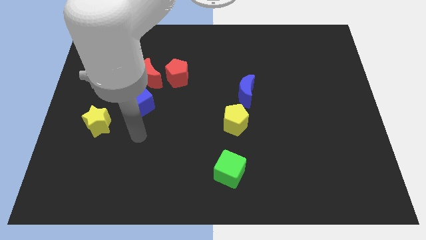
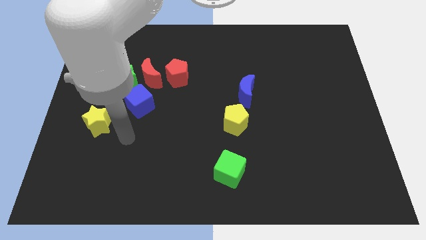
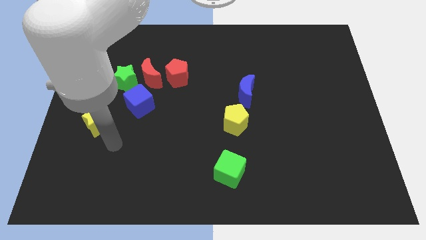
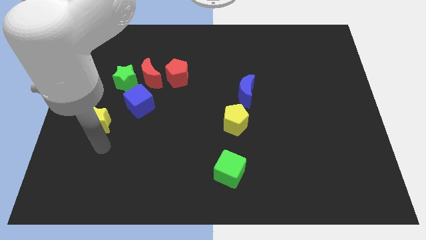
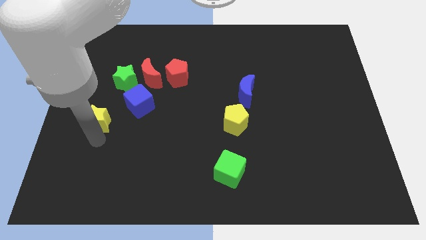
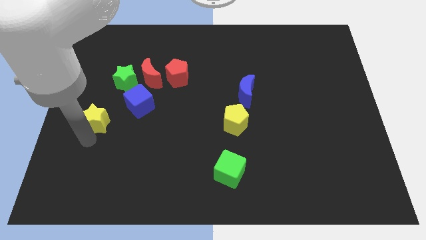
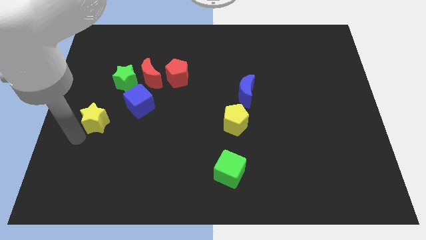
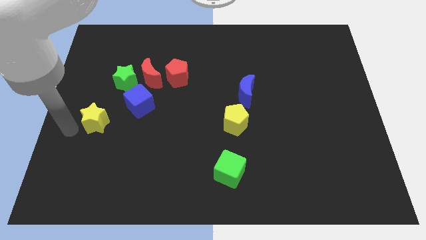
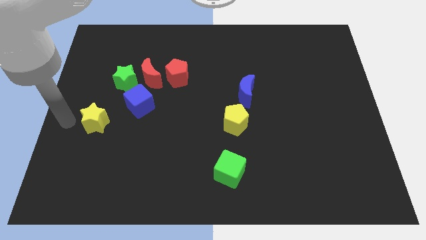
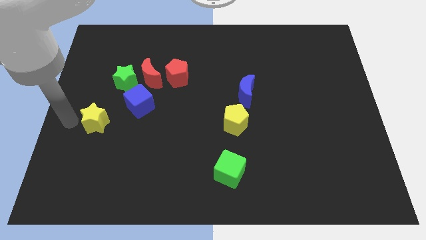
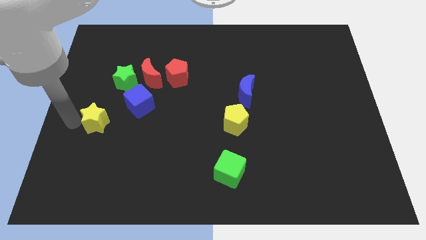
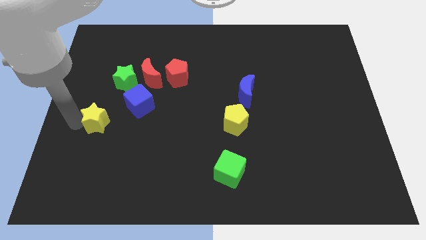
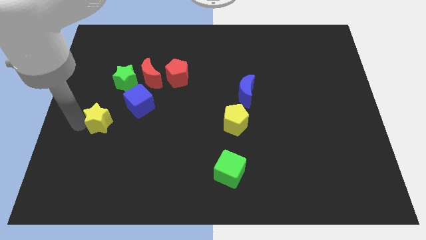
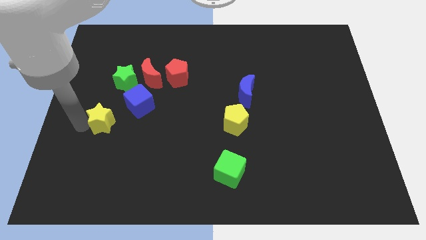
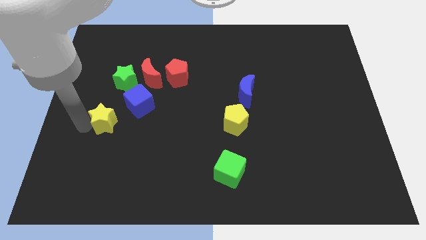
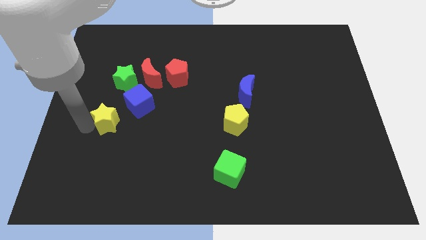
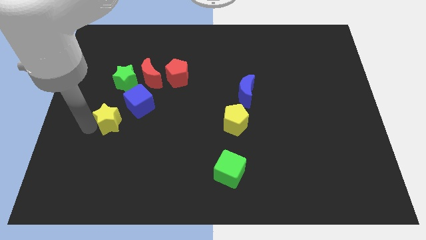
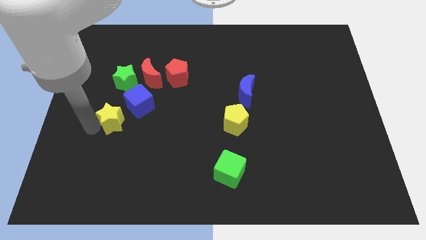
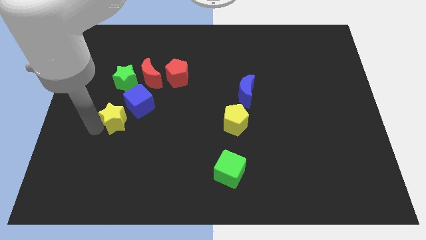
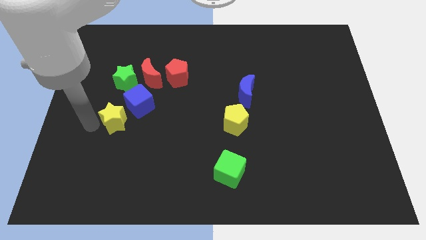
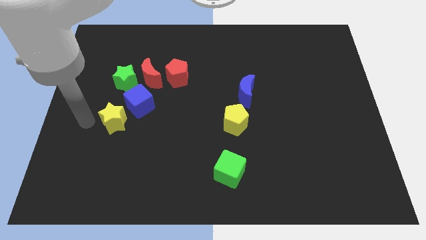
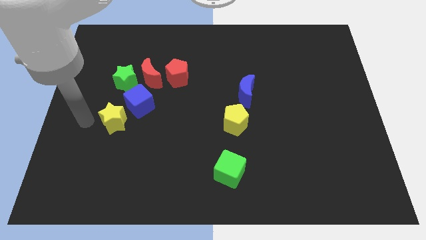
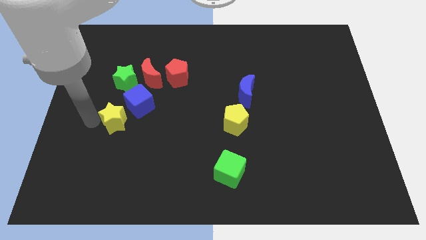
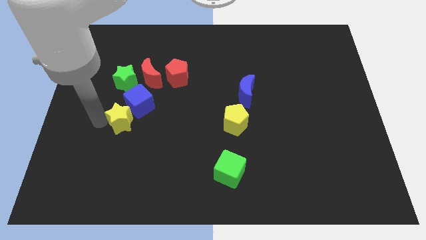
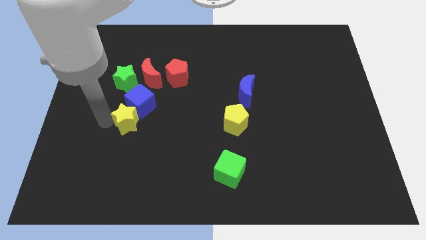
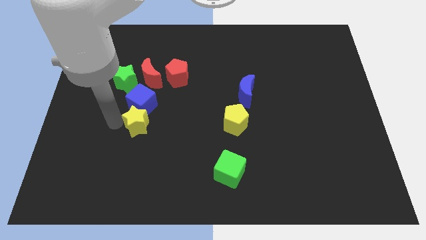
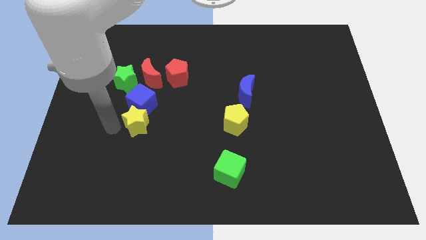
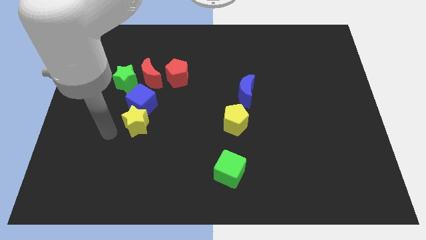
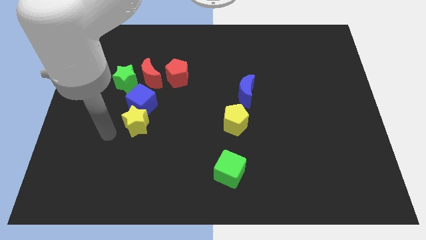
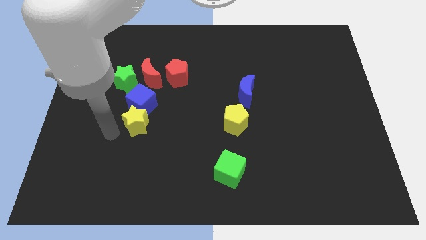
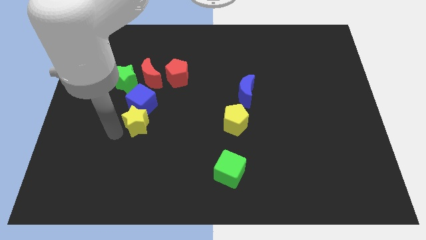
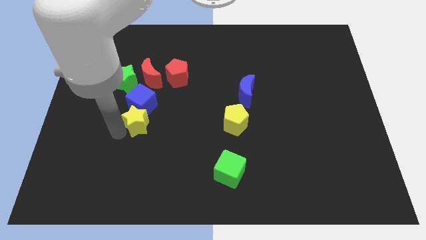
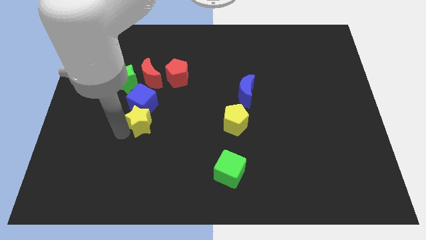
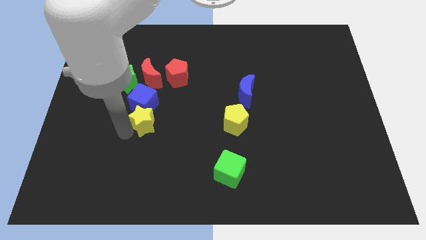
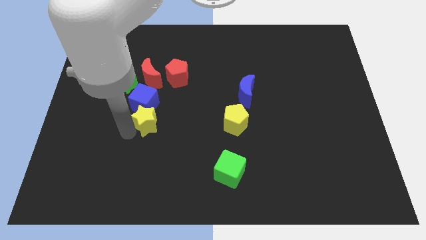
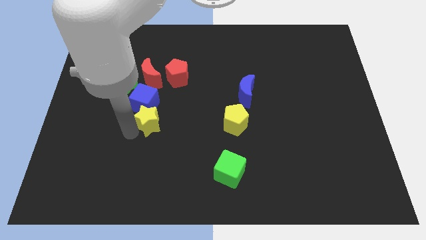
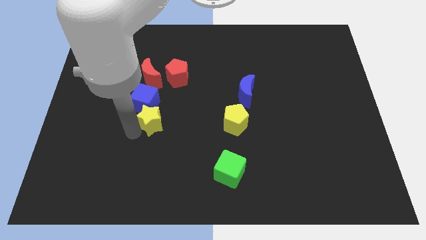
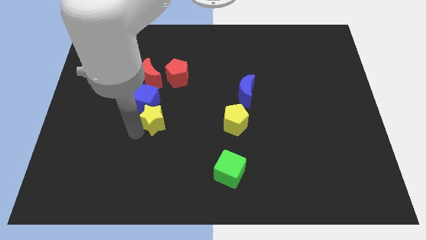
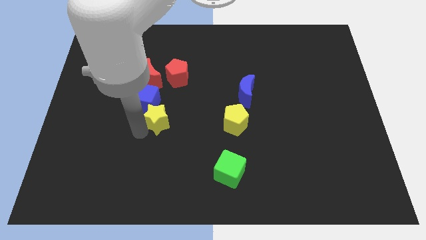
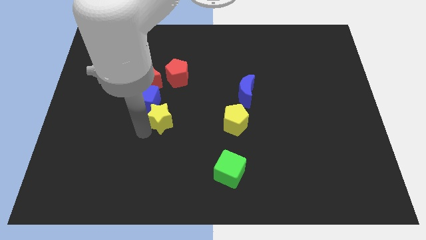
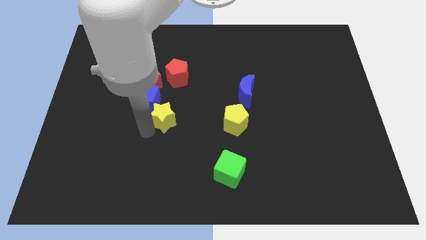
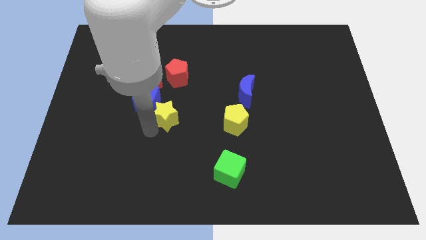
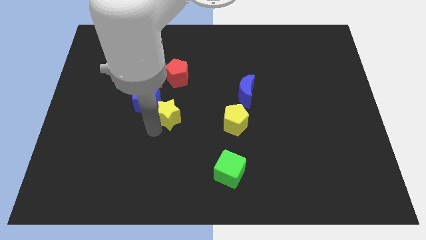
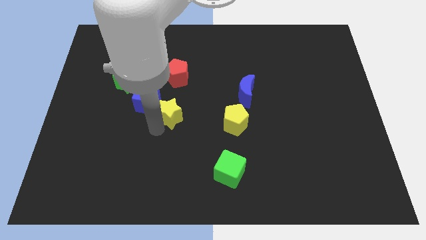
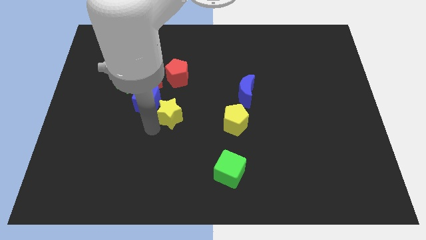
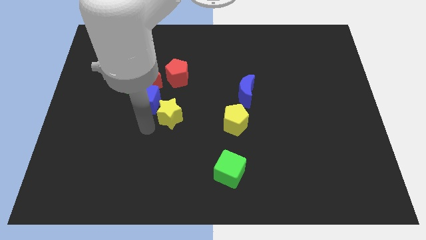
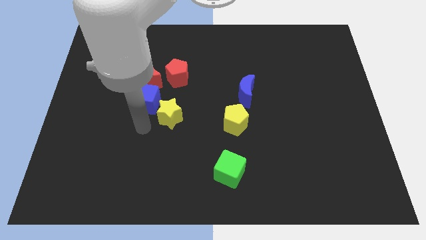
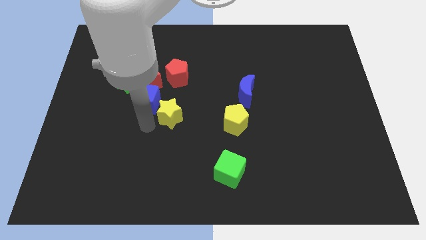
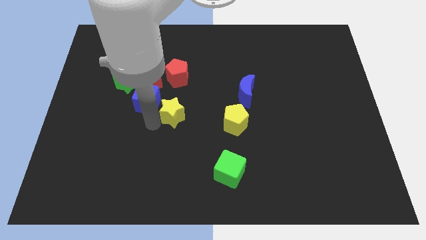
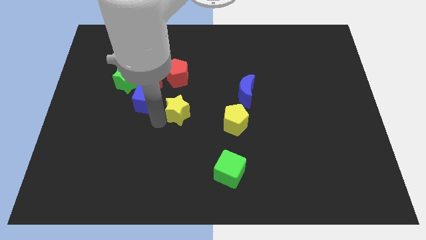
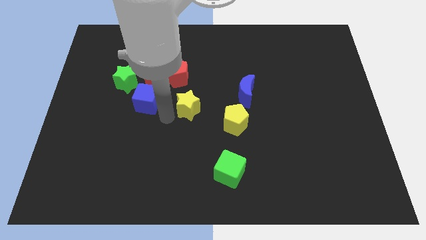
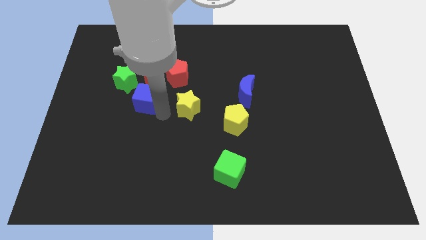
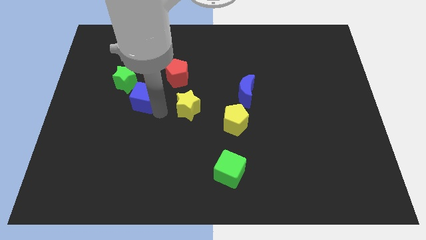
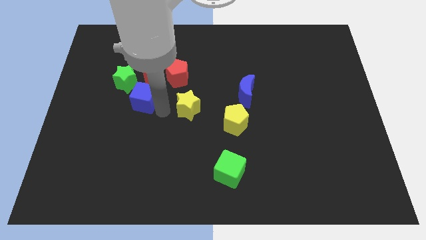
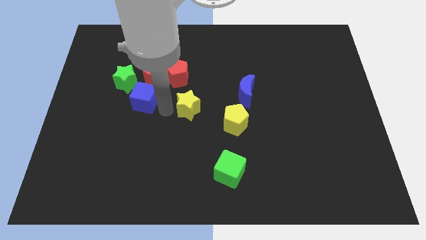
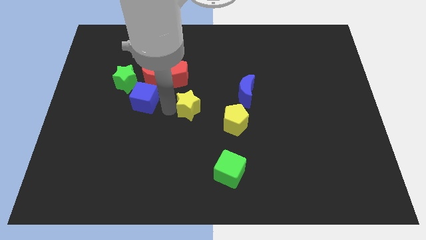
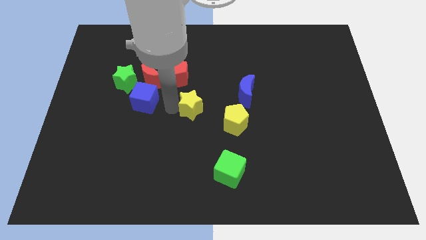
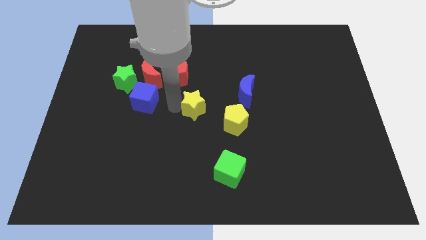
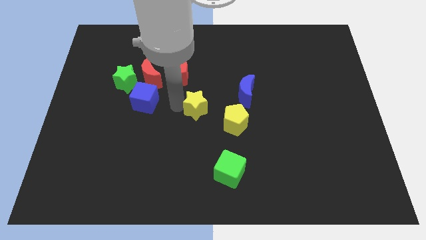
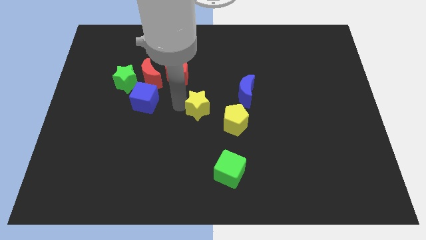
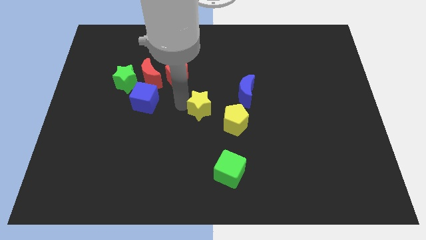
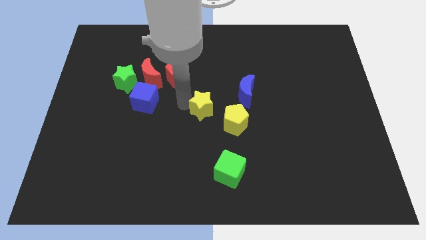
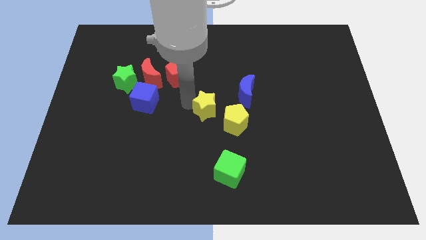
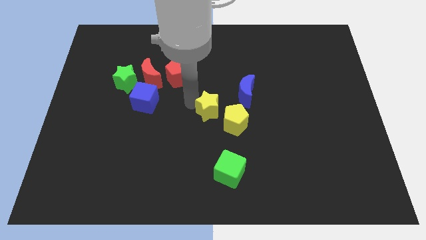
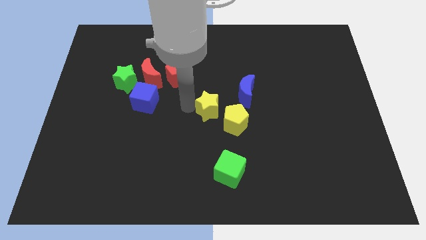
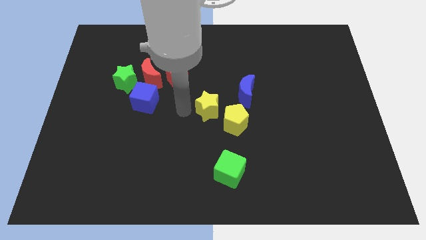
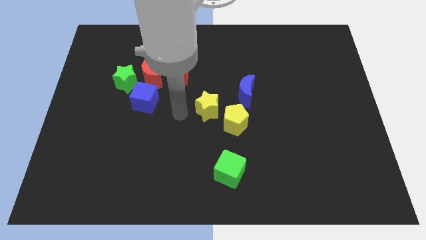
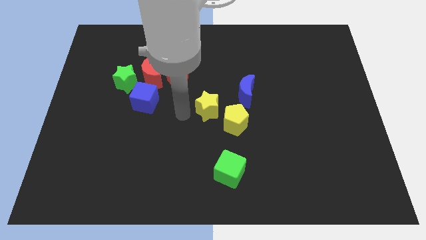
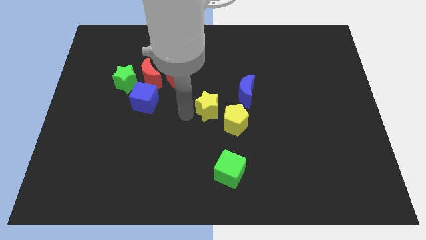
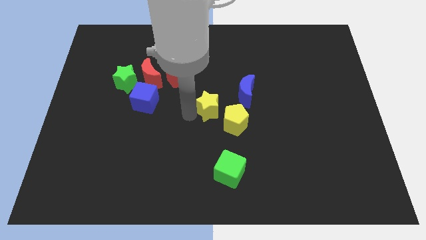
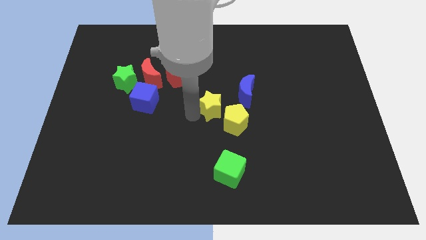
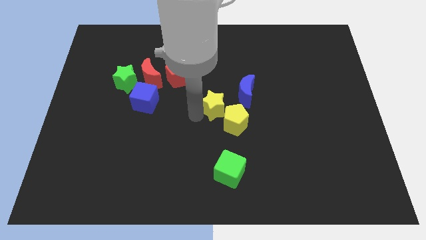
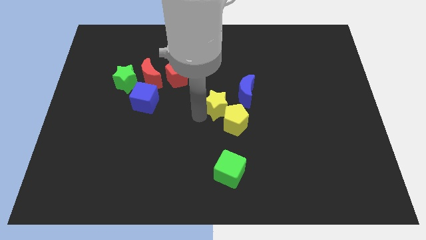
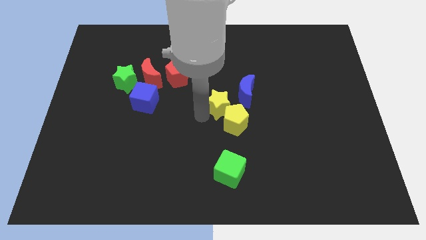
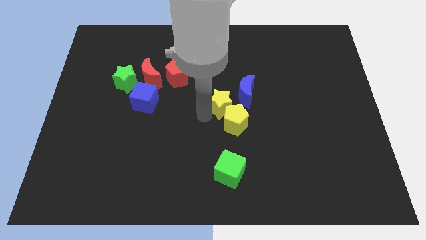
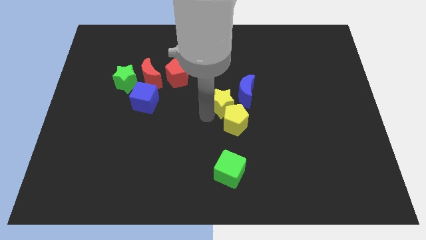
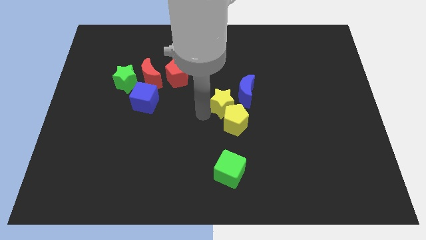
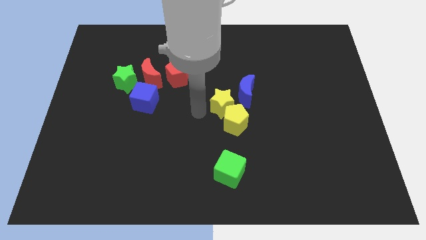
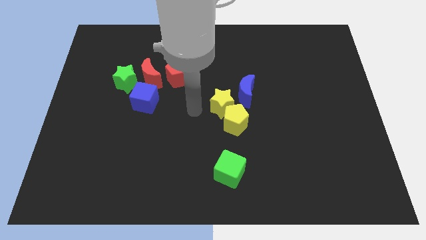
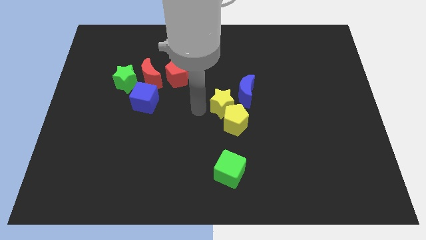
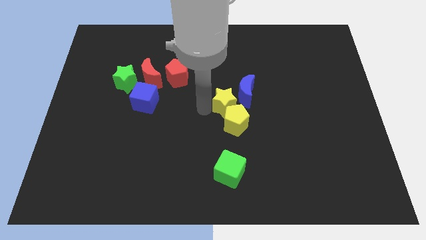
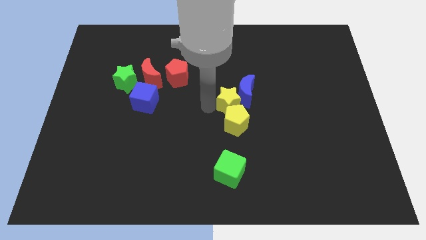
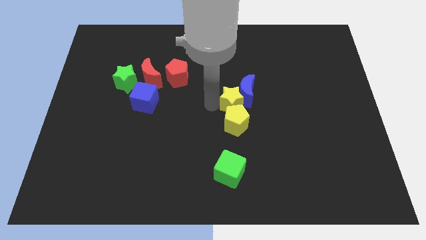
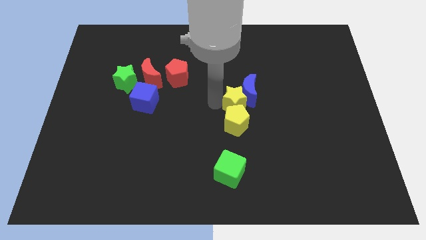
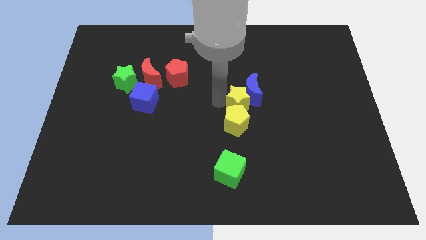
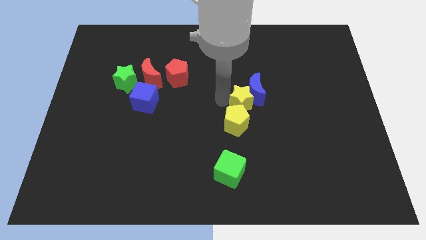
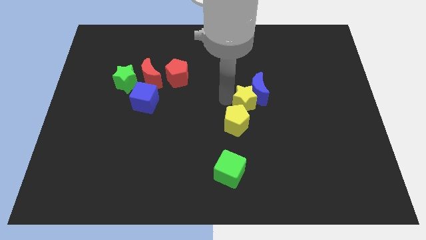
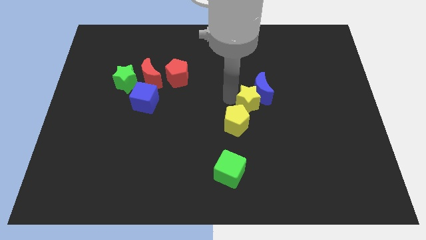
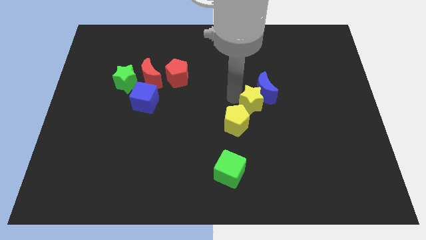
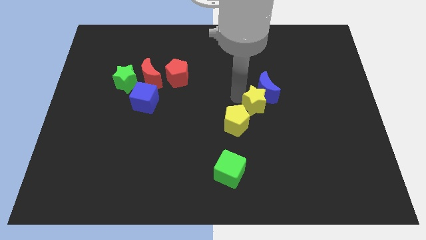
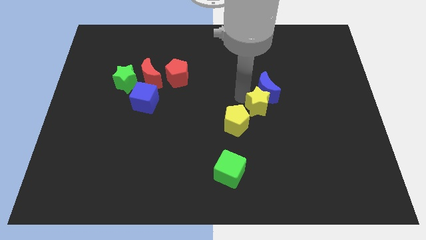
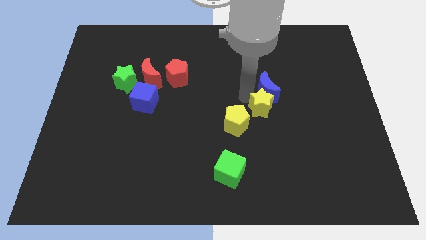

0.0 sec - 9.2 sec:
slide the yellow star diagonally down and to the right of the blue moon
